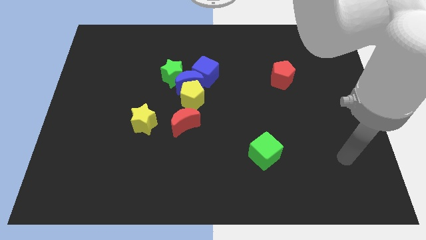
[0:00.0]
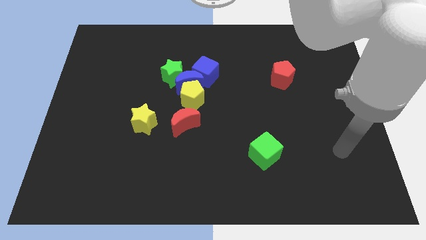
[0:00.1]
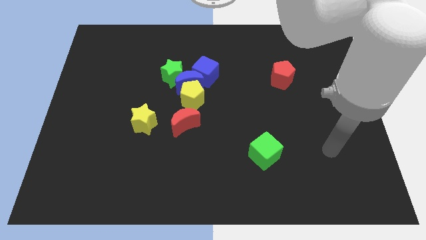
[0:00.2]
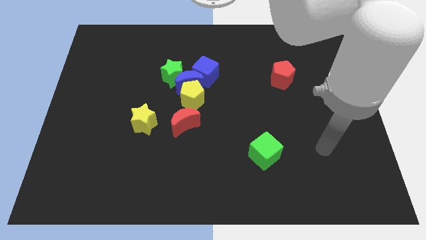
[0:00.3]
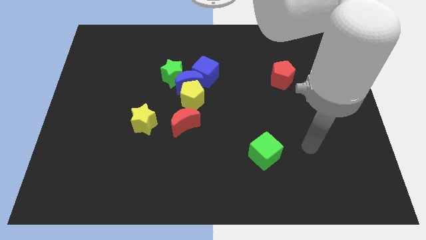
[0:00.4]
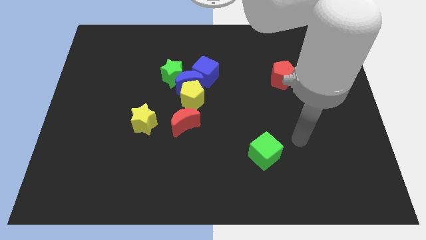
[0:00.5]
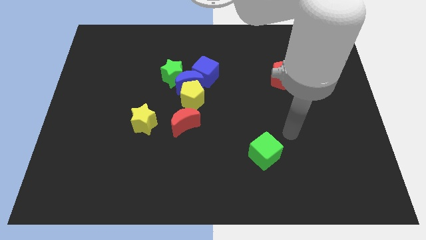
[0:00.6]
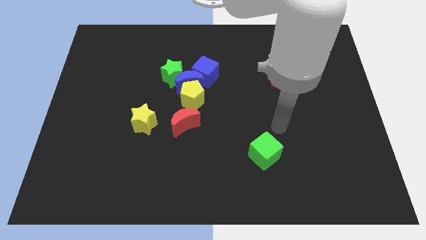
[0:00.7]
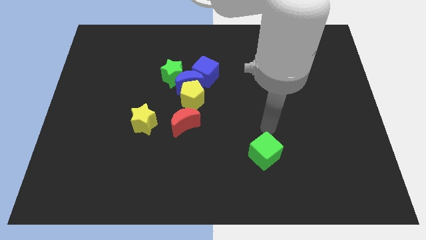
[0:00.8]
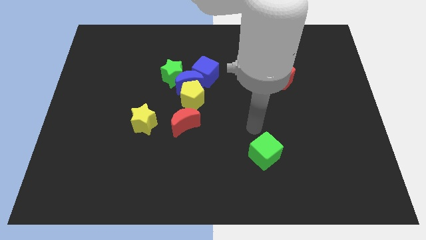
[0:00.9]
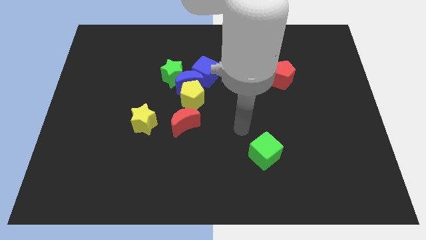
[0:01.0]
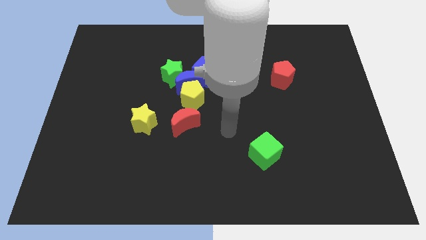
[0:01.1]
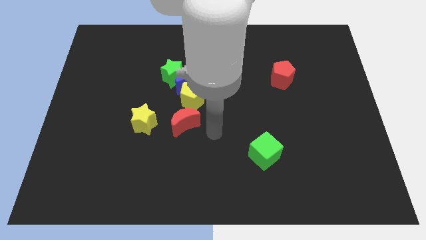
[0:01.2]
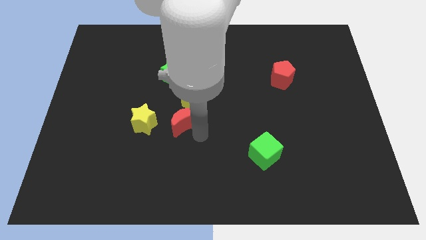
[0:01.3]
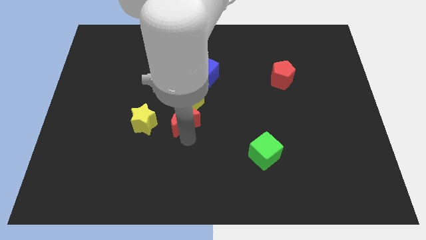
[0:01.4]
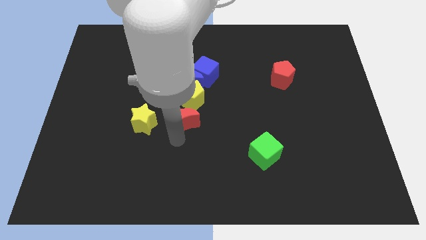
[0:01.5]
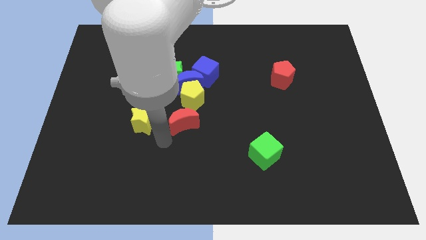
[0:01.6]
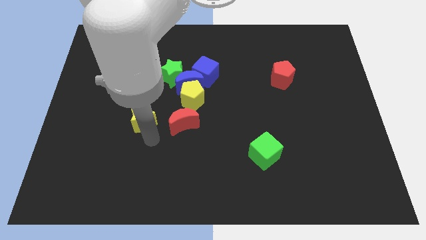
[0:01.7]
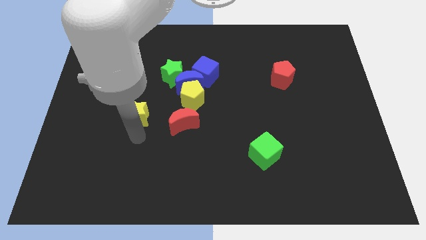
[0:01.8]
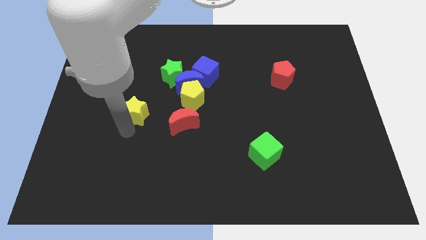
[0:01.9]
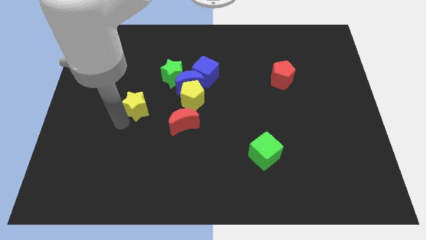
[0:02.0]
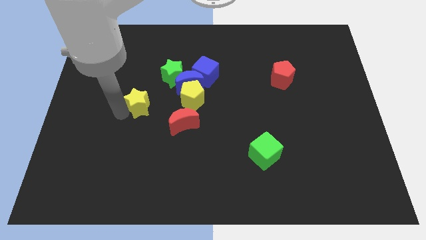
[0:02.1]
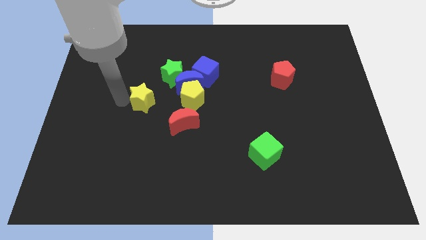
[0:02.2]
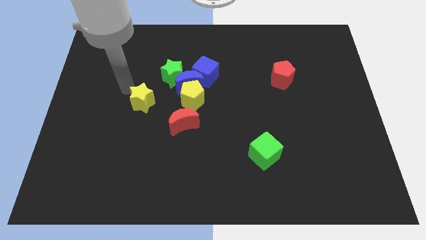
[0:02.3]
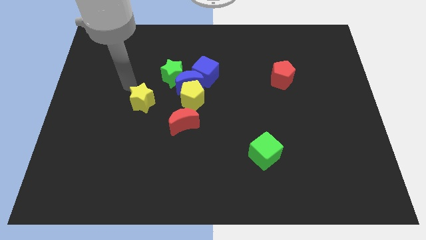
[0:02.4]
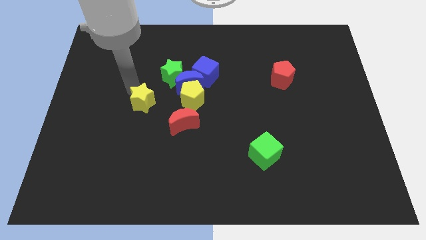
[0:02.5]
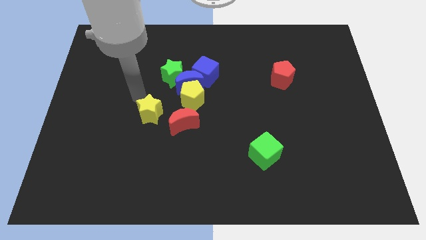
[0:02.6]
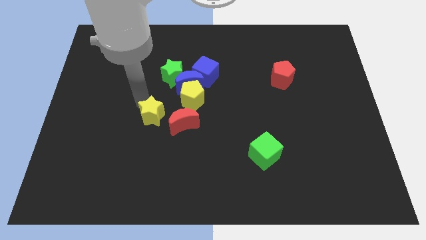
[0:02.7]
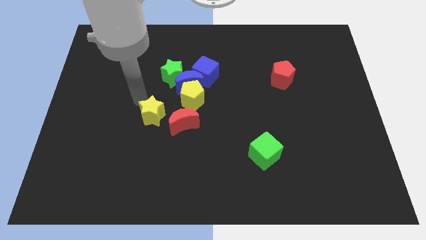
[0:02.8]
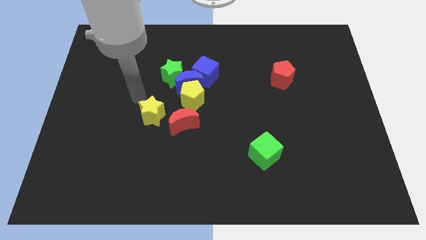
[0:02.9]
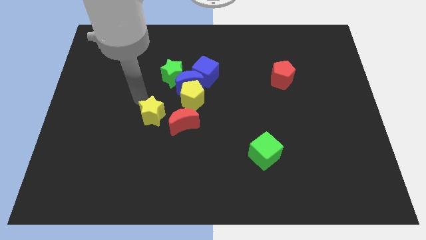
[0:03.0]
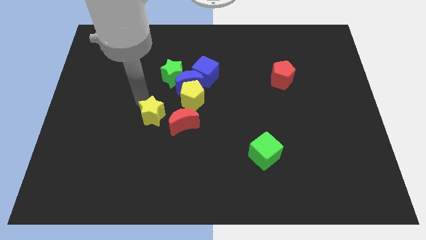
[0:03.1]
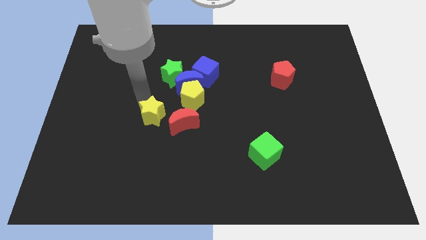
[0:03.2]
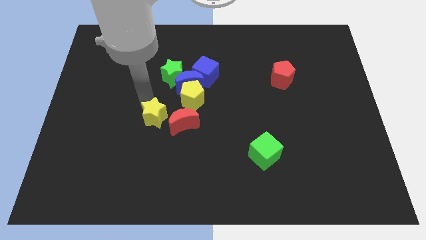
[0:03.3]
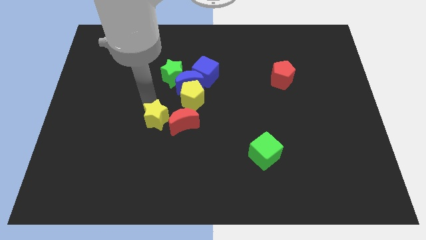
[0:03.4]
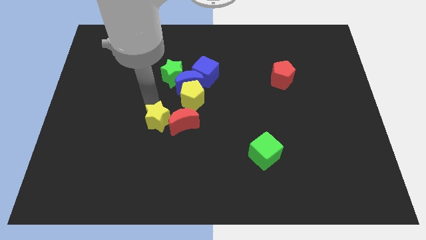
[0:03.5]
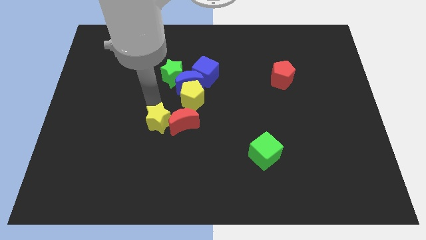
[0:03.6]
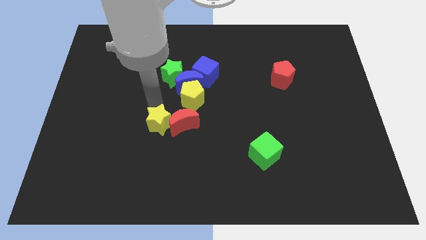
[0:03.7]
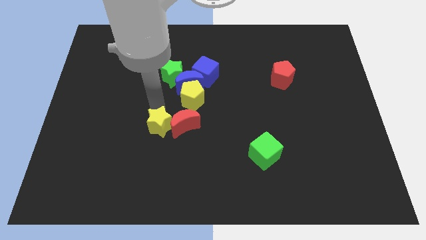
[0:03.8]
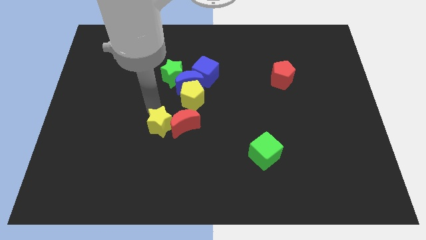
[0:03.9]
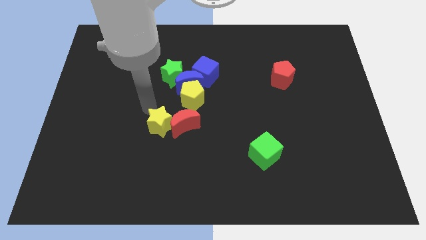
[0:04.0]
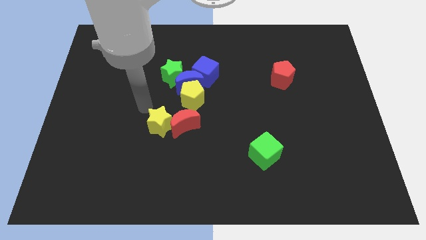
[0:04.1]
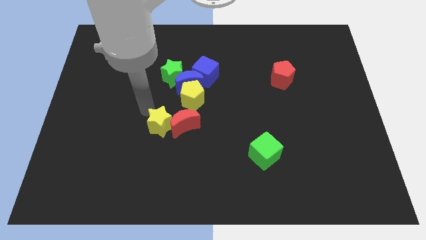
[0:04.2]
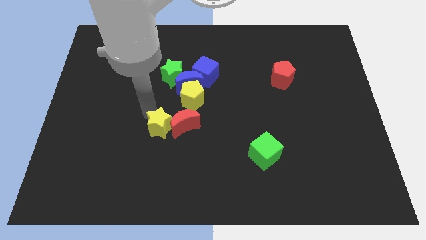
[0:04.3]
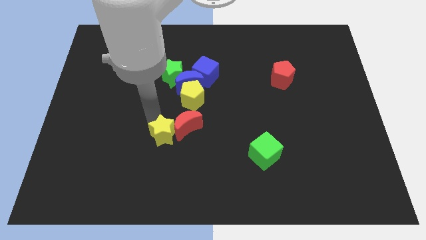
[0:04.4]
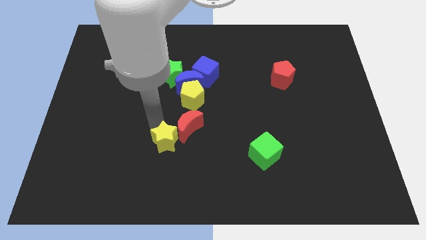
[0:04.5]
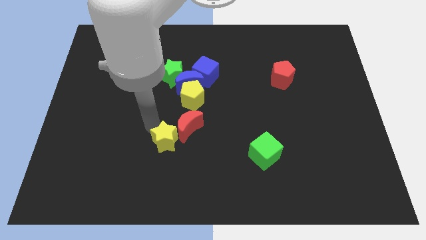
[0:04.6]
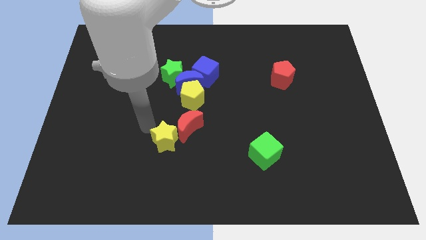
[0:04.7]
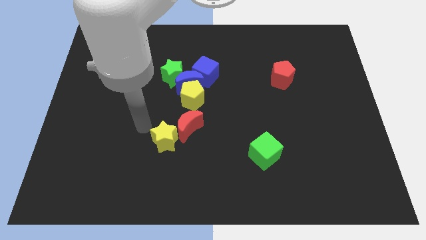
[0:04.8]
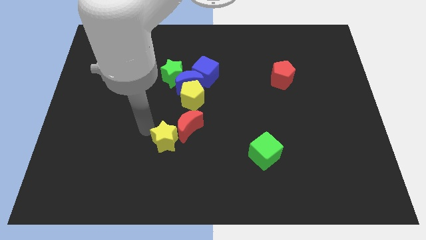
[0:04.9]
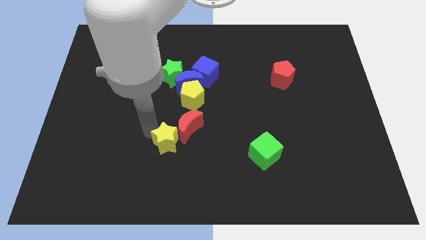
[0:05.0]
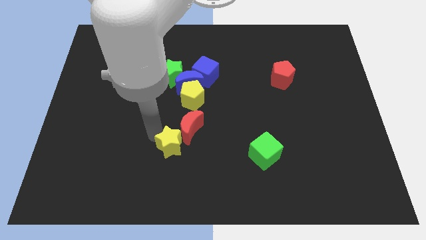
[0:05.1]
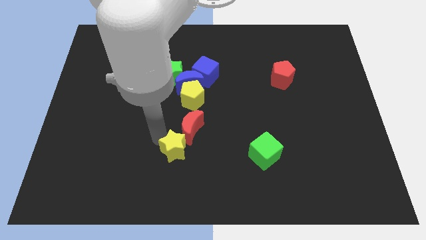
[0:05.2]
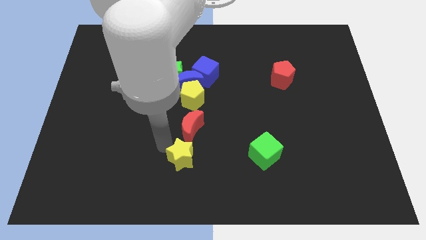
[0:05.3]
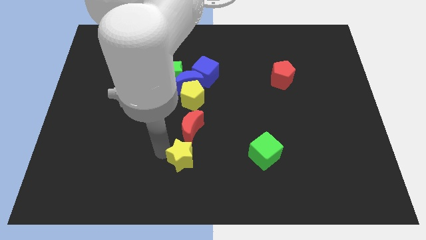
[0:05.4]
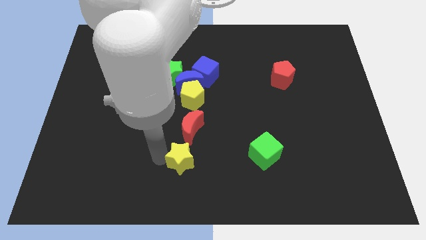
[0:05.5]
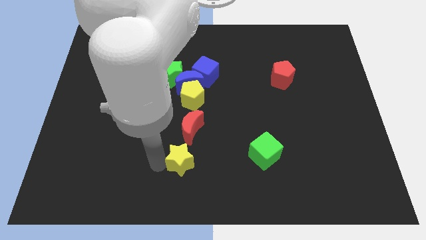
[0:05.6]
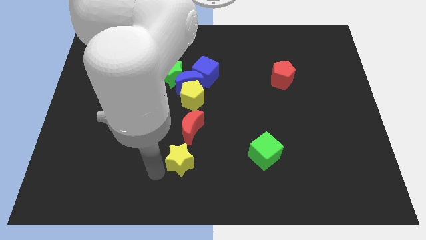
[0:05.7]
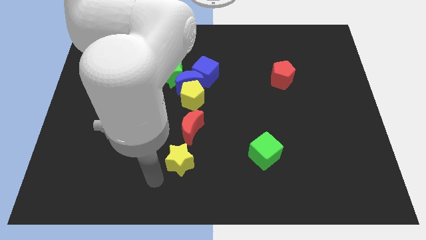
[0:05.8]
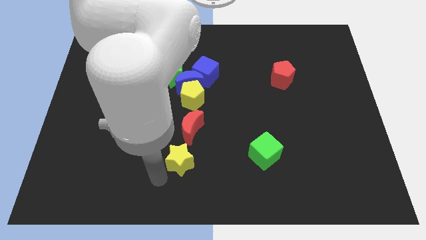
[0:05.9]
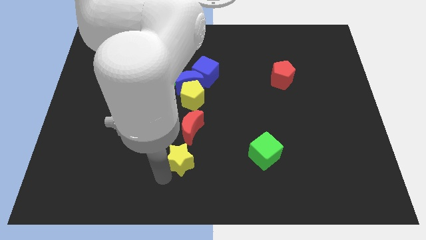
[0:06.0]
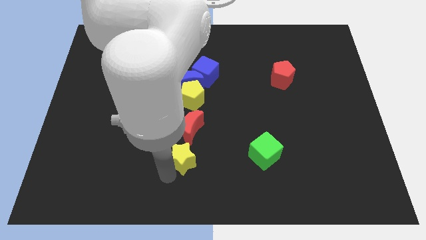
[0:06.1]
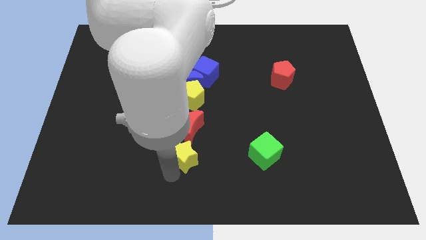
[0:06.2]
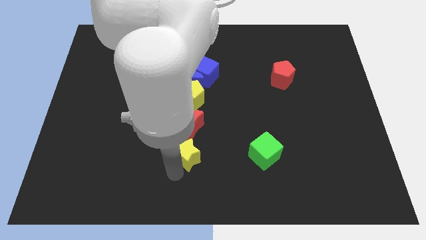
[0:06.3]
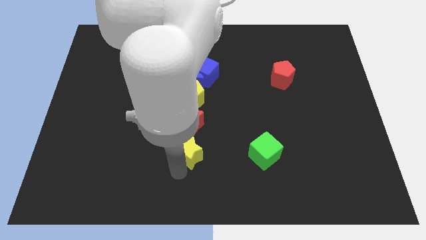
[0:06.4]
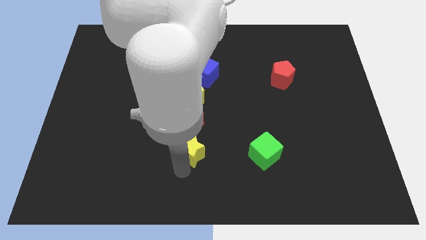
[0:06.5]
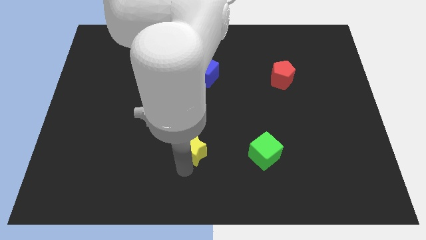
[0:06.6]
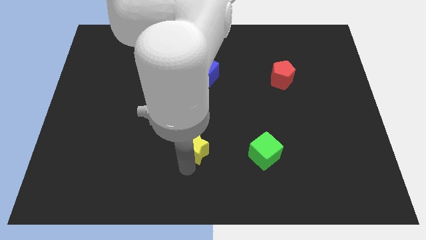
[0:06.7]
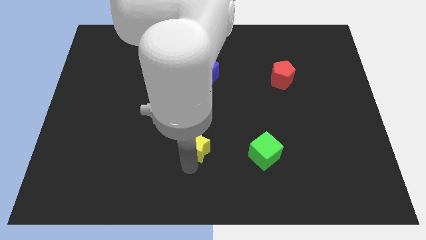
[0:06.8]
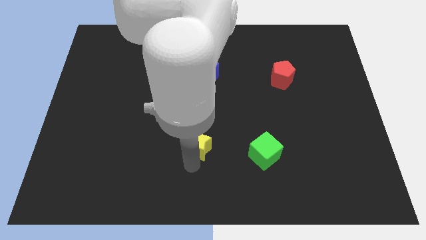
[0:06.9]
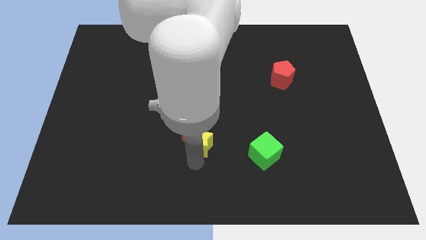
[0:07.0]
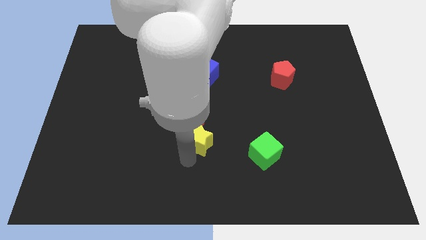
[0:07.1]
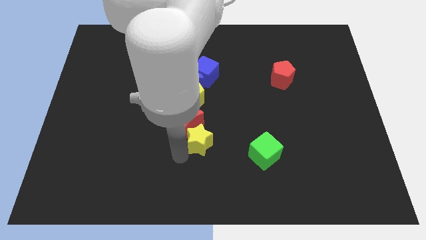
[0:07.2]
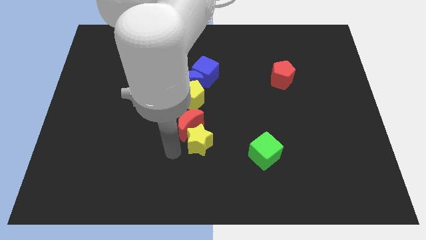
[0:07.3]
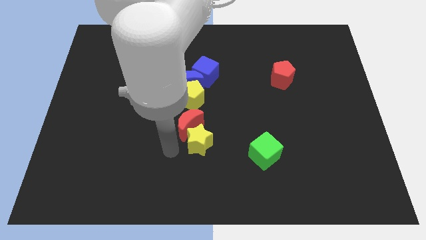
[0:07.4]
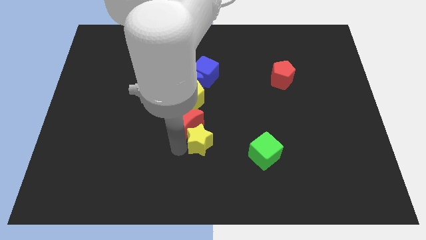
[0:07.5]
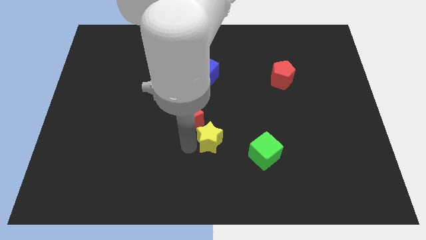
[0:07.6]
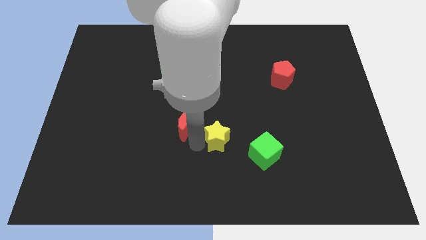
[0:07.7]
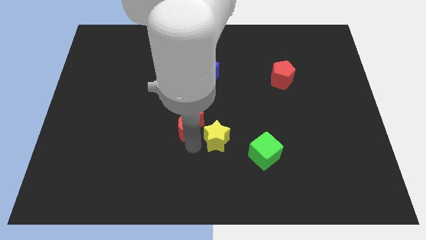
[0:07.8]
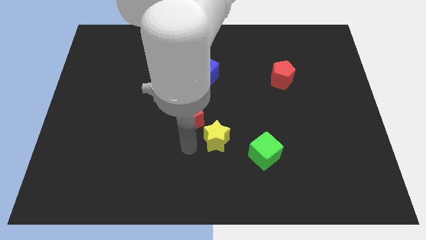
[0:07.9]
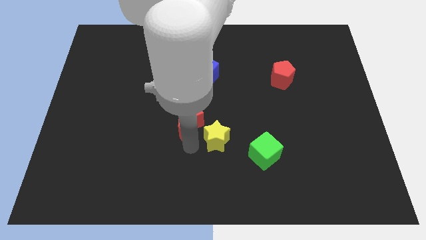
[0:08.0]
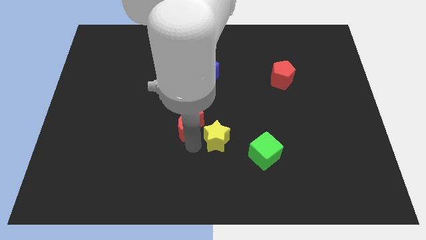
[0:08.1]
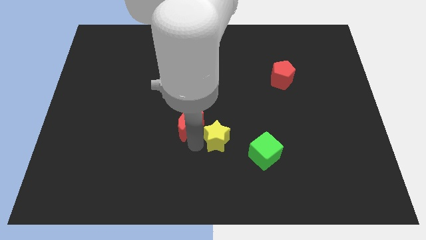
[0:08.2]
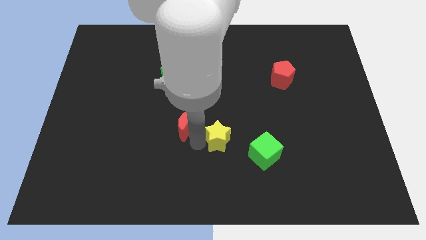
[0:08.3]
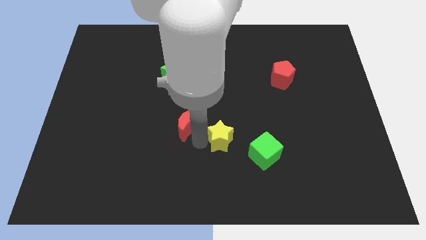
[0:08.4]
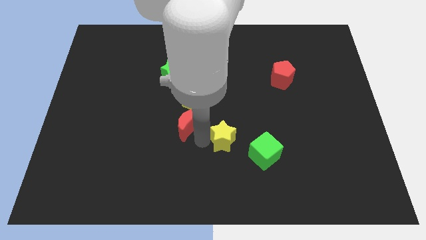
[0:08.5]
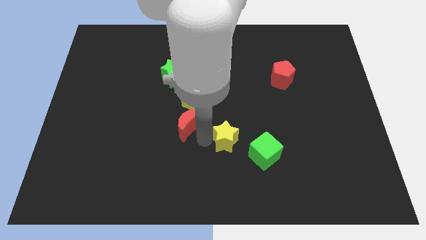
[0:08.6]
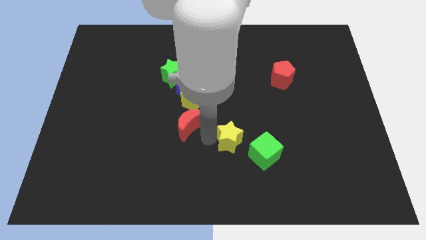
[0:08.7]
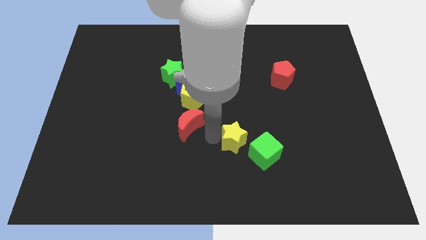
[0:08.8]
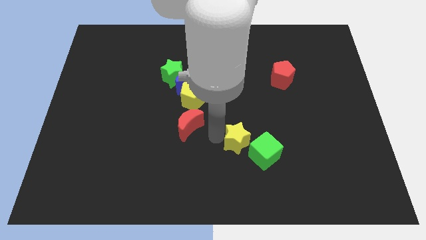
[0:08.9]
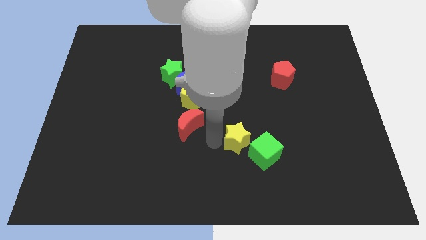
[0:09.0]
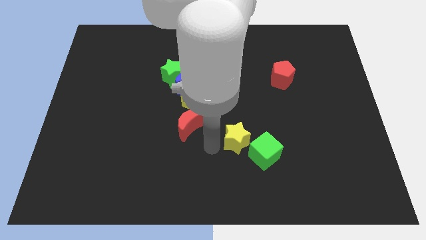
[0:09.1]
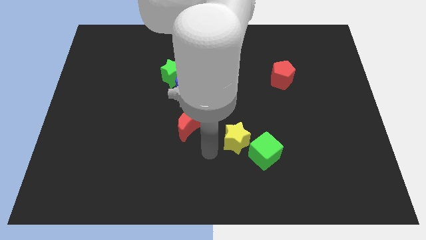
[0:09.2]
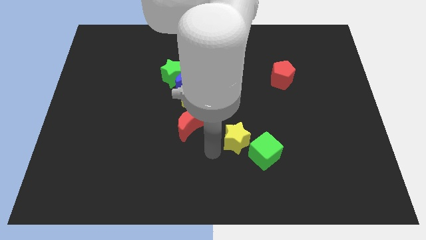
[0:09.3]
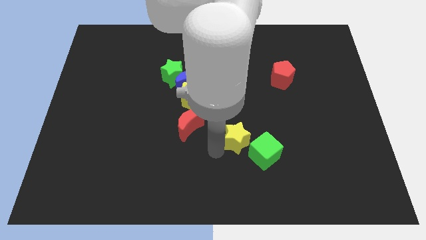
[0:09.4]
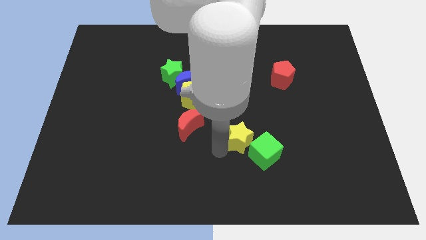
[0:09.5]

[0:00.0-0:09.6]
move the yellow star right
